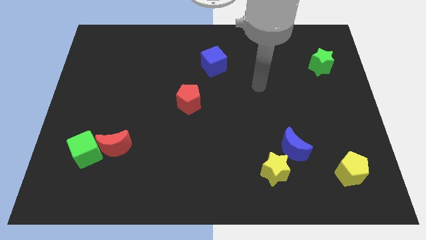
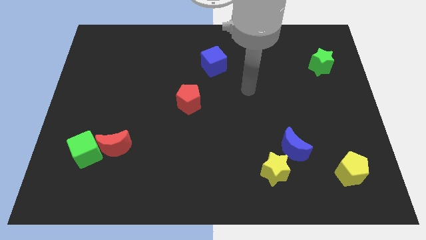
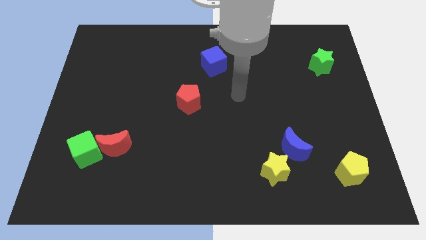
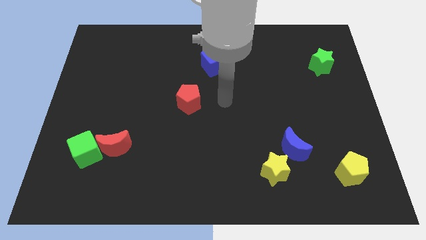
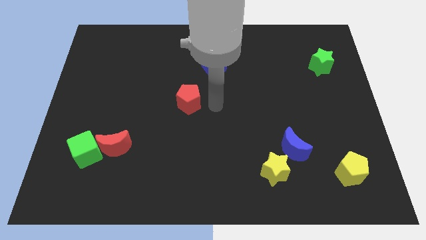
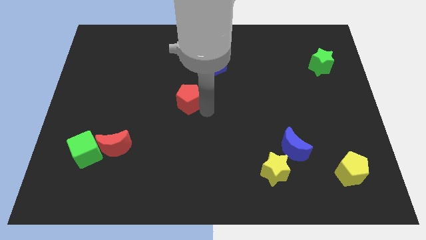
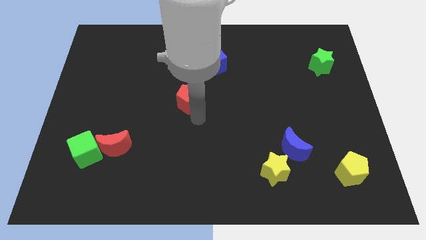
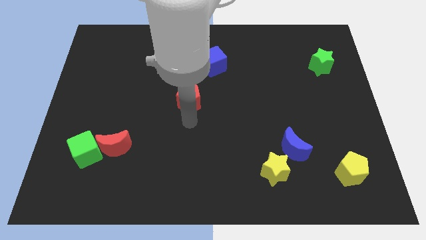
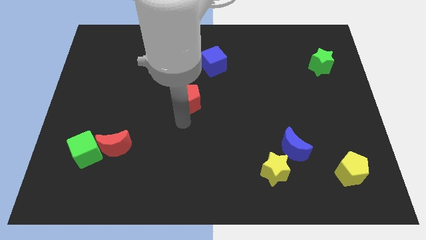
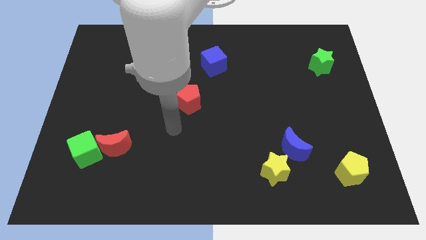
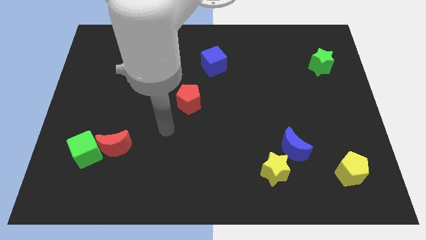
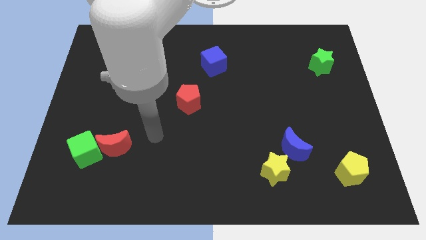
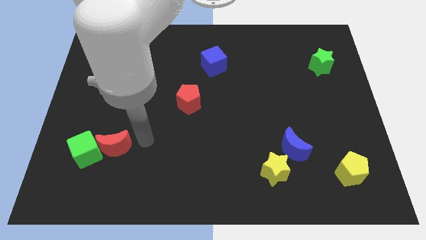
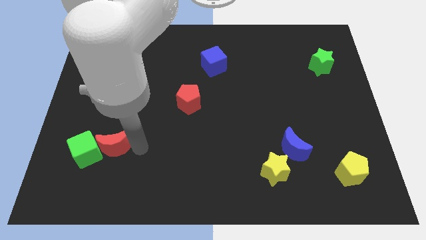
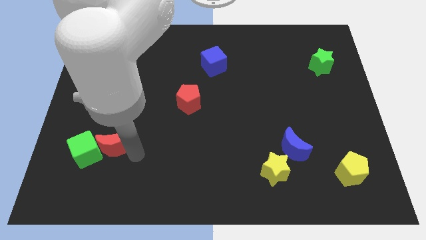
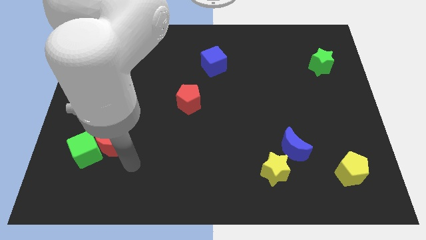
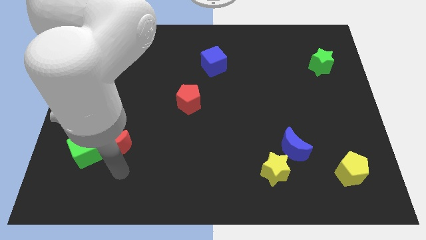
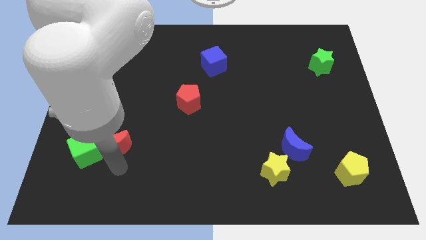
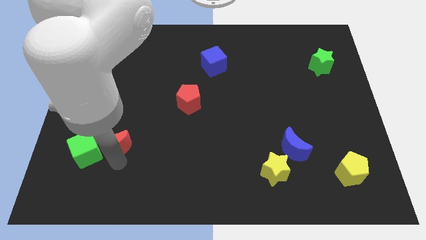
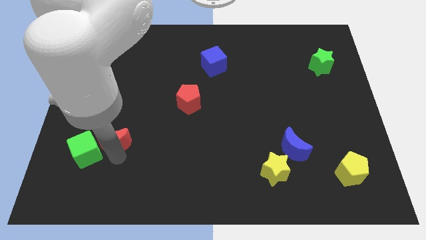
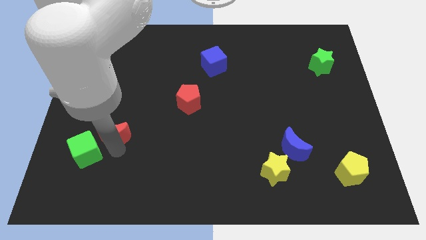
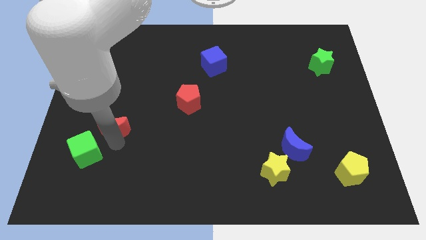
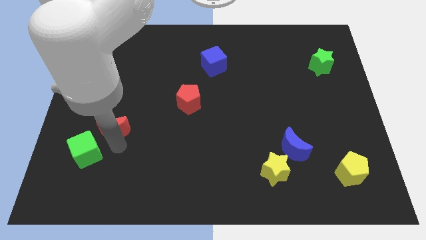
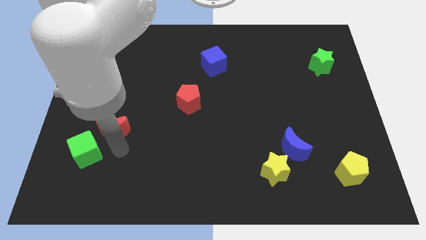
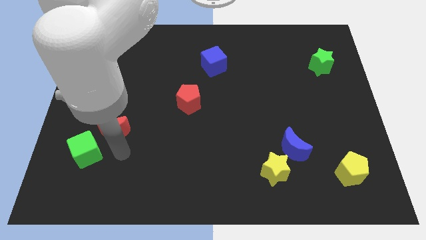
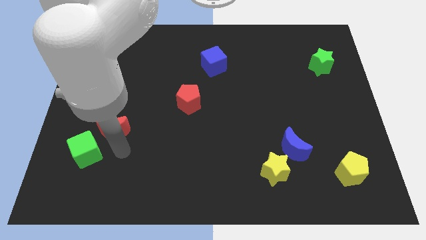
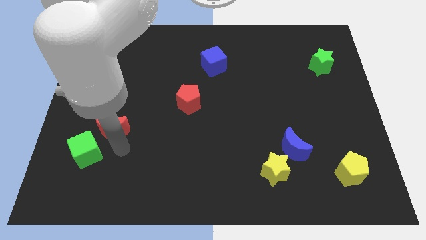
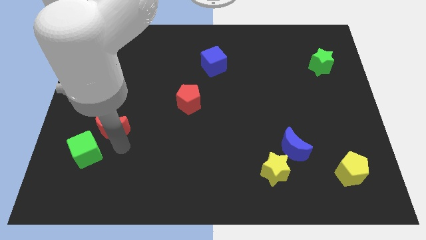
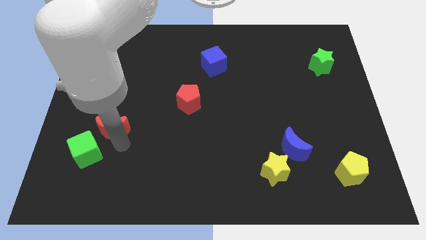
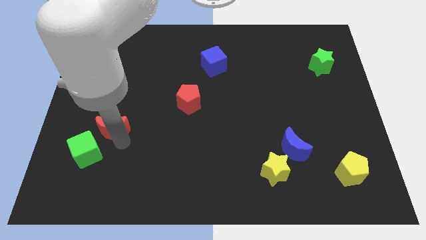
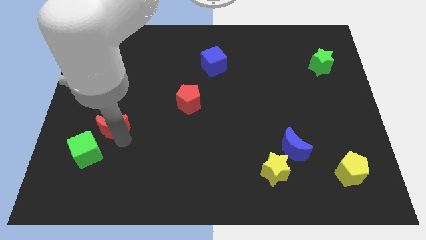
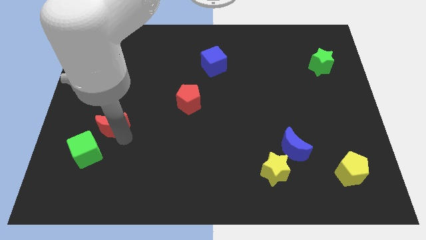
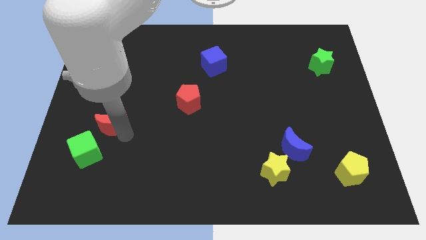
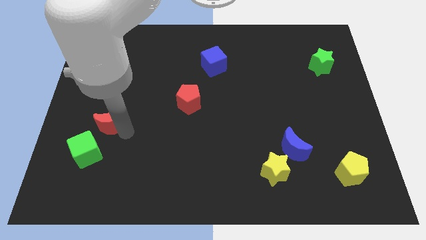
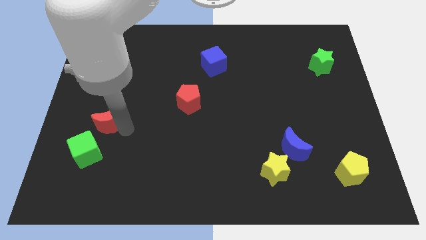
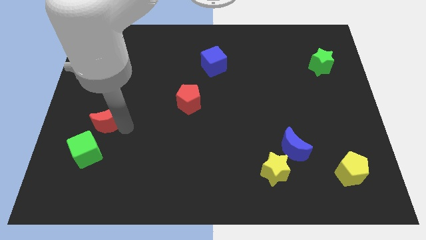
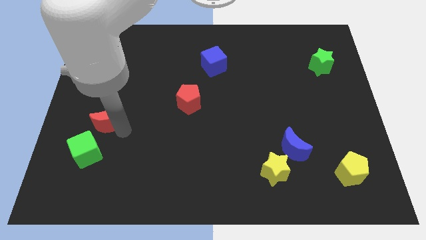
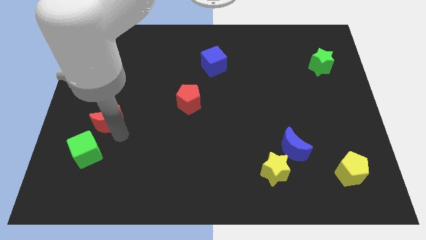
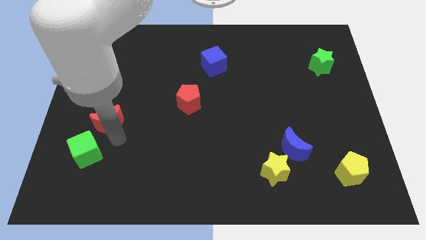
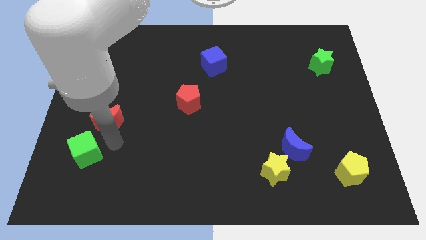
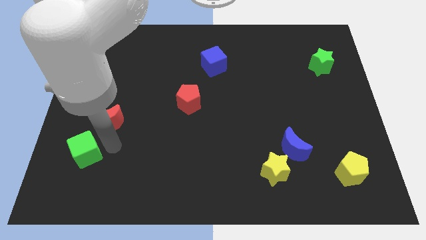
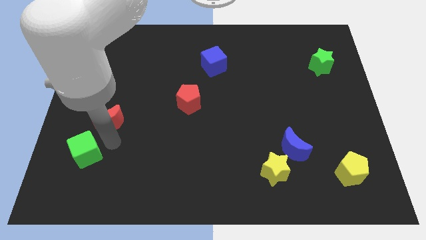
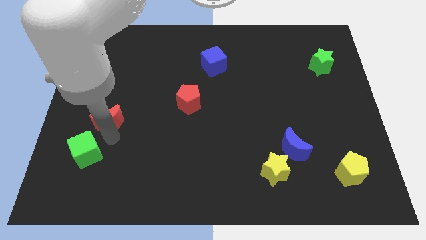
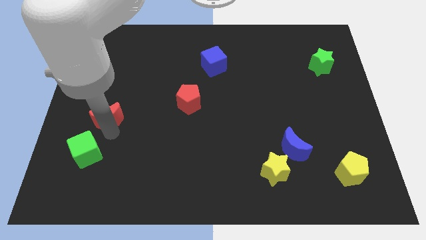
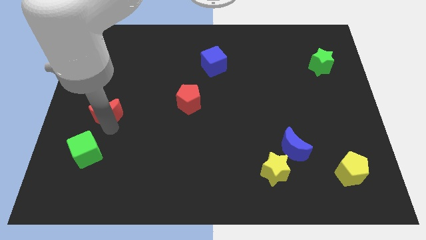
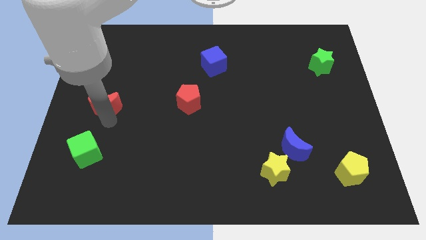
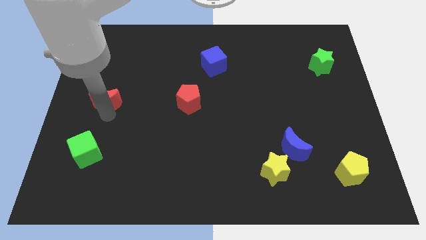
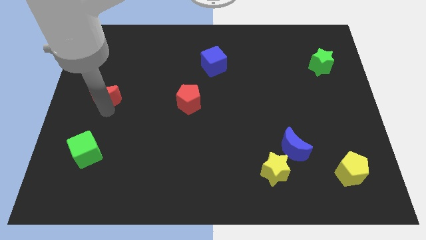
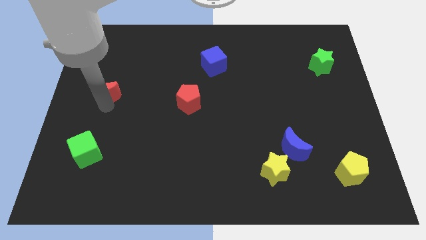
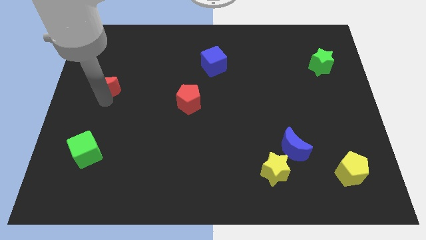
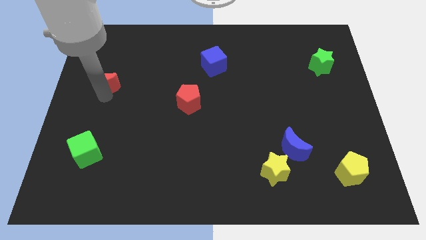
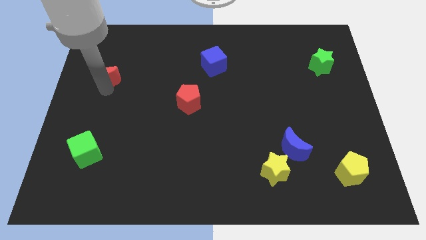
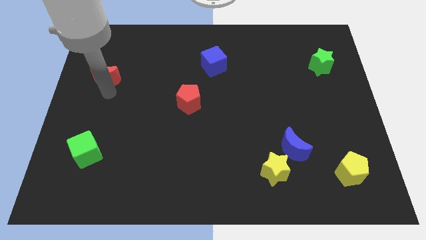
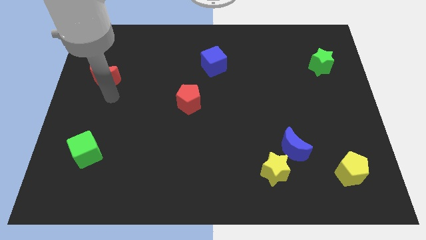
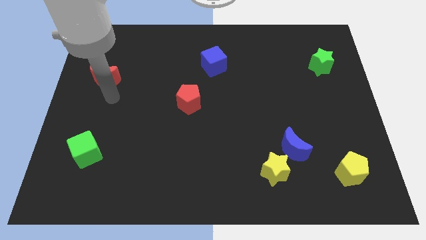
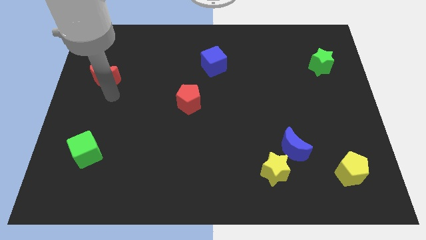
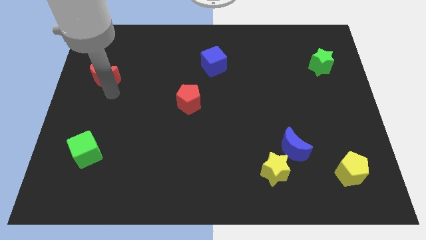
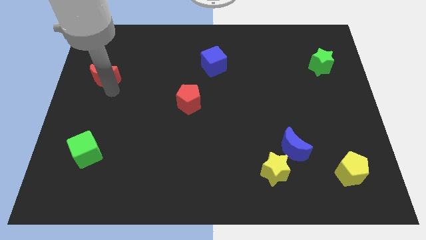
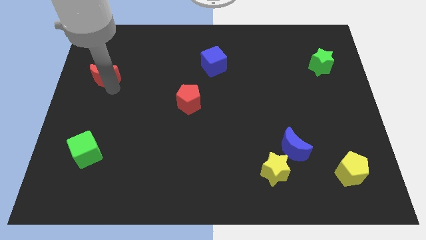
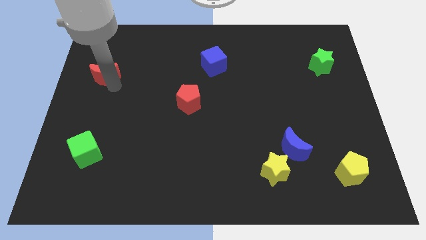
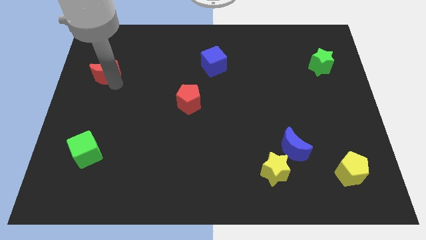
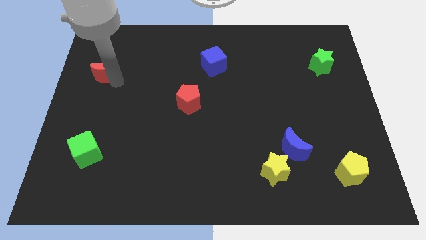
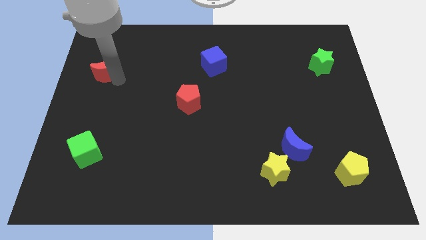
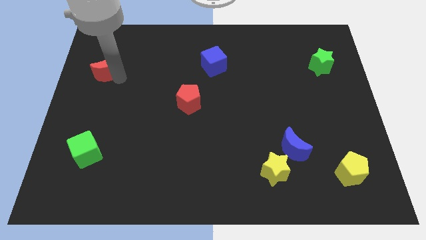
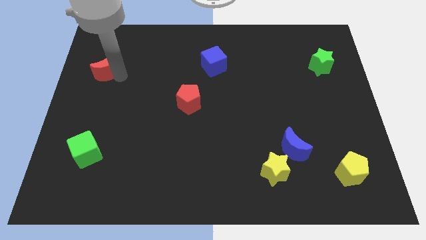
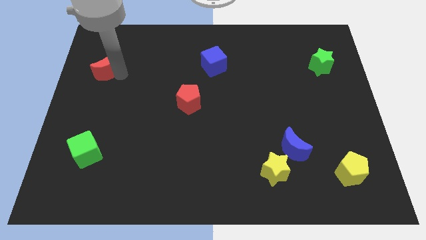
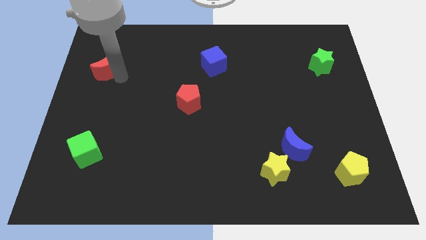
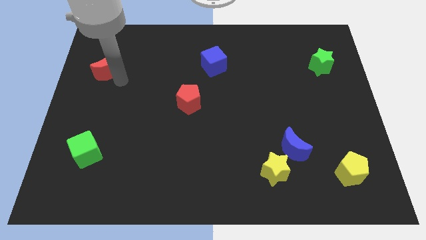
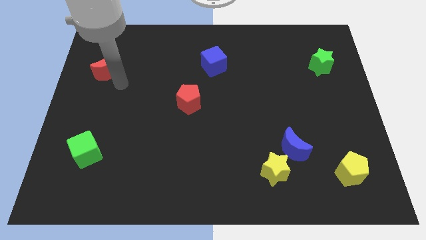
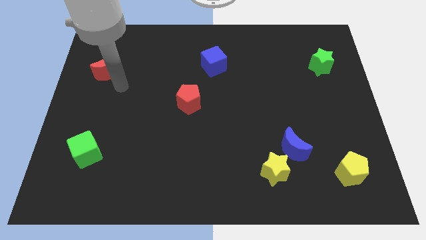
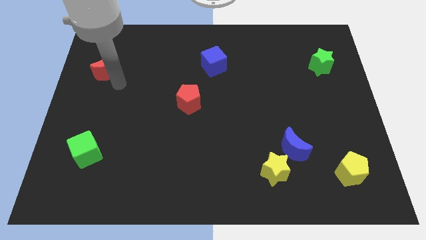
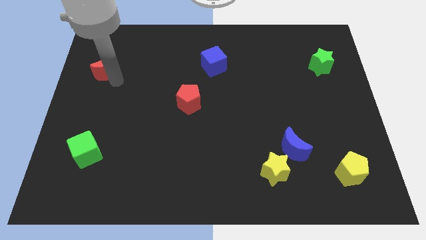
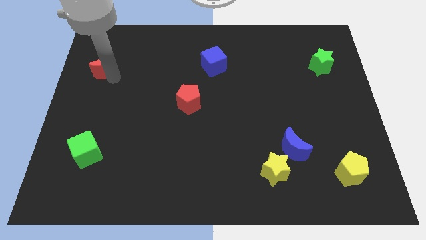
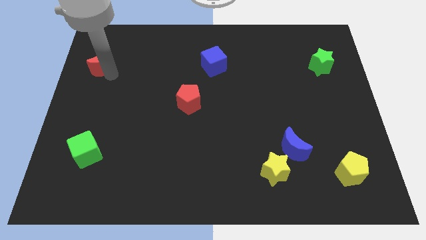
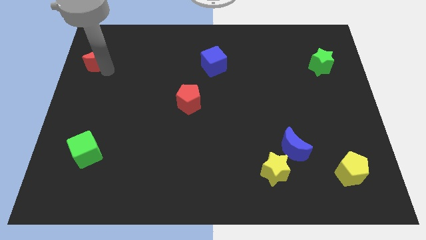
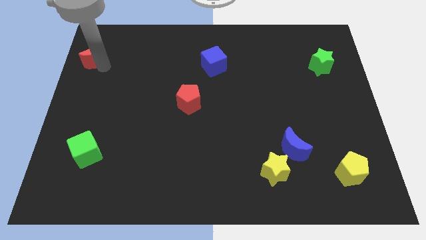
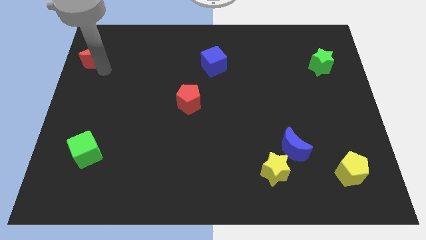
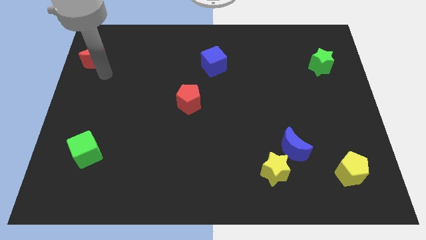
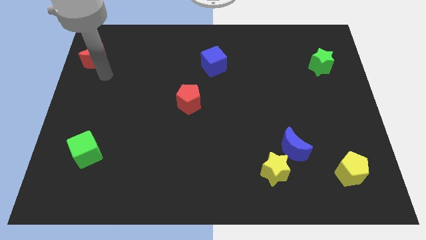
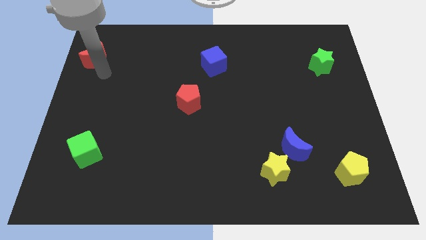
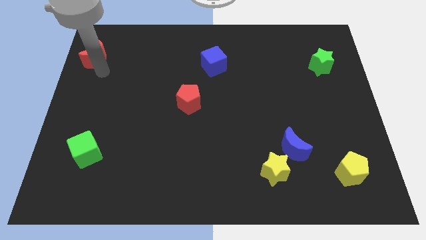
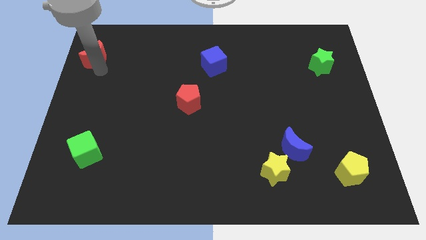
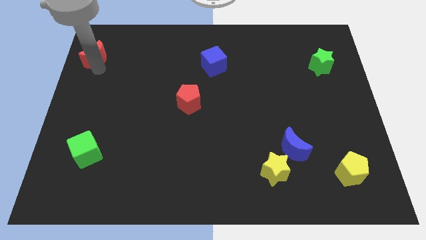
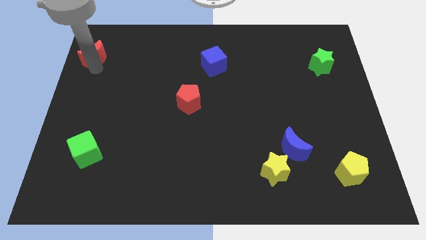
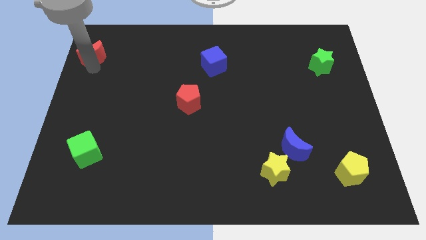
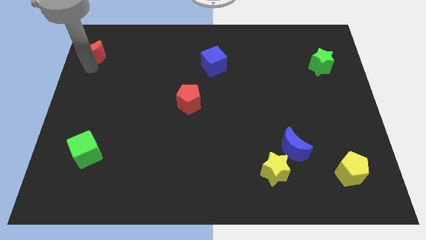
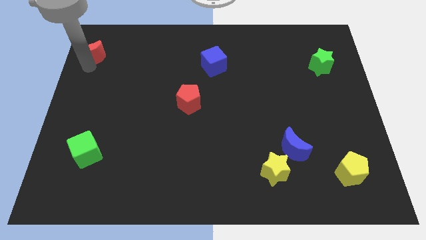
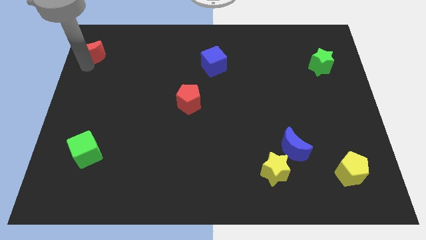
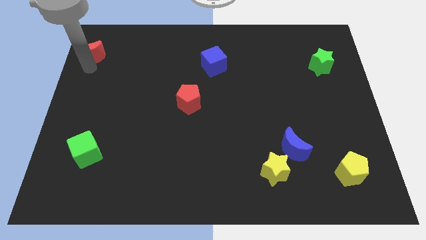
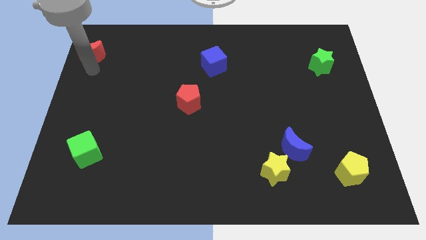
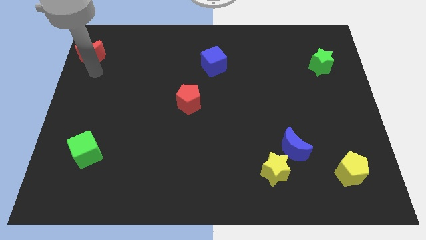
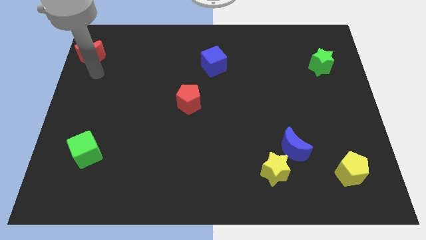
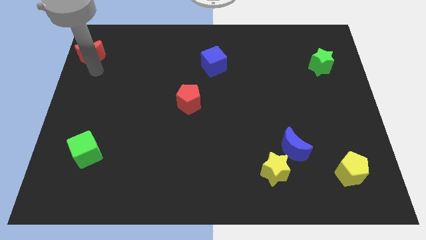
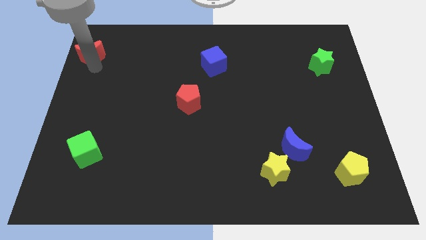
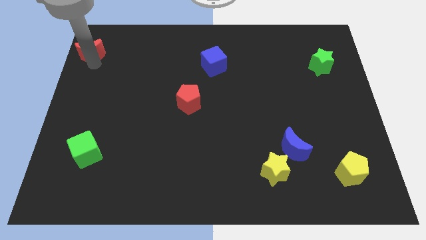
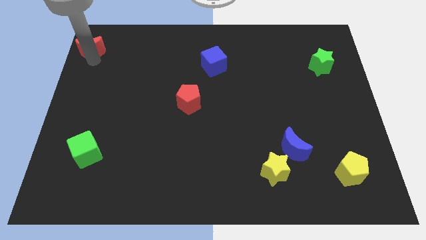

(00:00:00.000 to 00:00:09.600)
push the red moon to the top left
